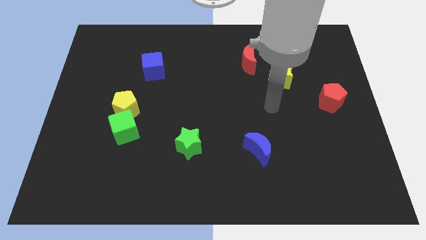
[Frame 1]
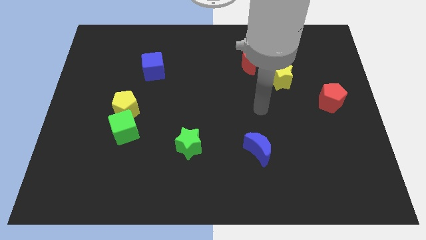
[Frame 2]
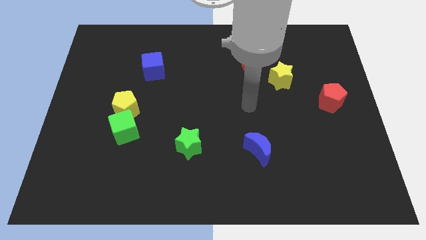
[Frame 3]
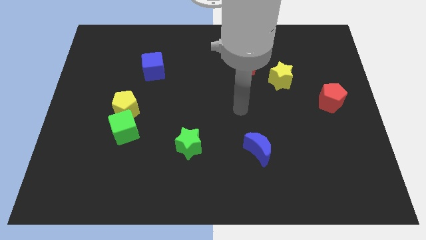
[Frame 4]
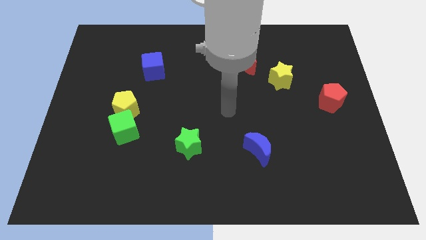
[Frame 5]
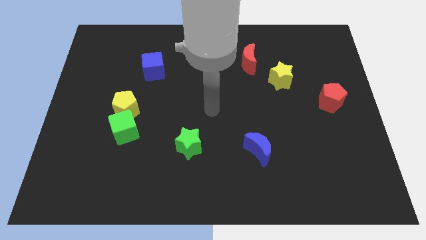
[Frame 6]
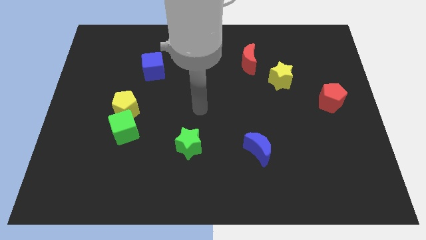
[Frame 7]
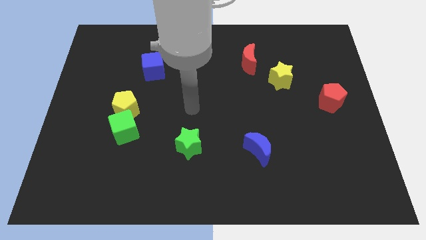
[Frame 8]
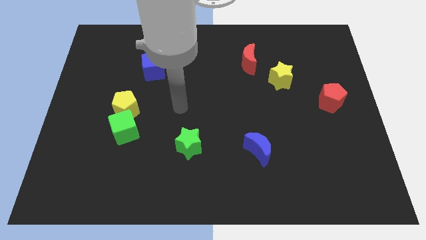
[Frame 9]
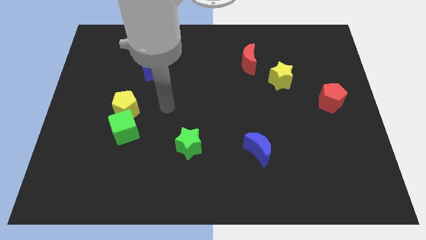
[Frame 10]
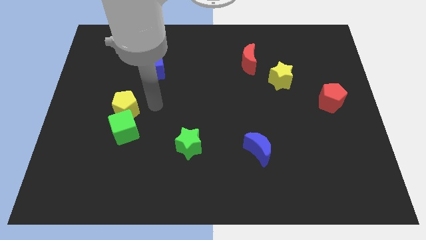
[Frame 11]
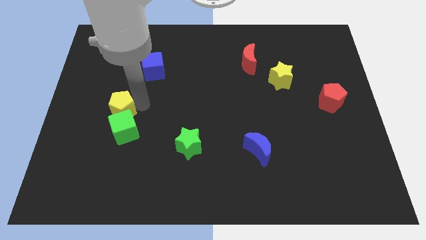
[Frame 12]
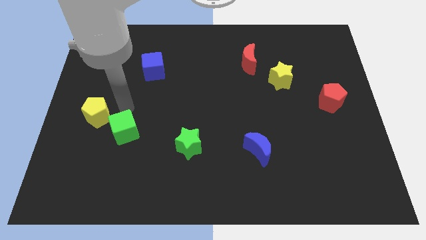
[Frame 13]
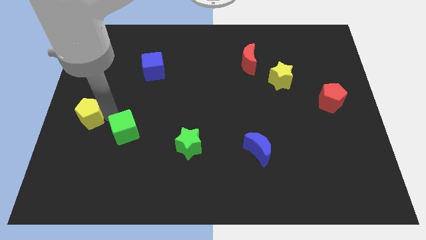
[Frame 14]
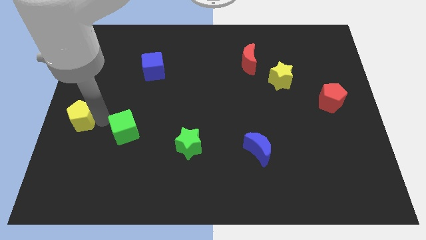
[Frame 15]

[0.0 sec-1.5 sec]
pull the green cube apart from the yellow pentagon

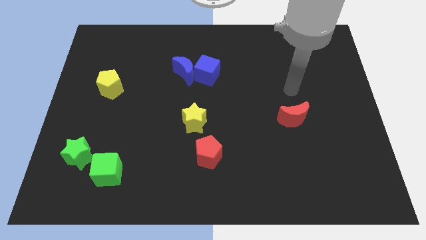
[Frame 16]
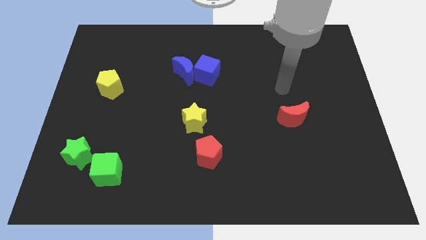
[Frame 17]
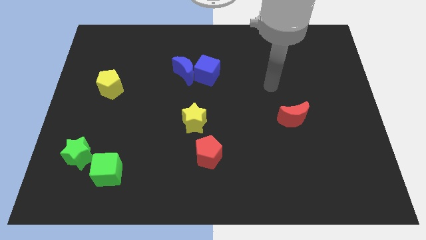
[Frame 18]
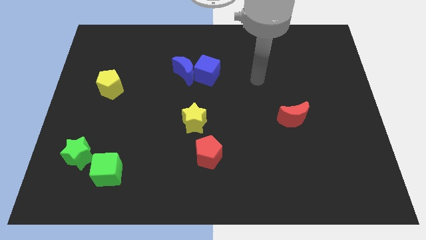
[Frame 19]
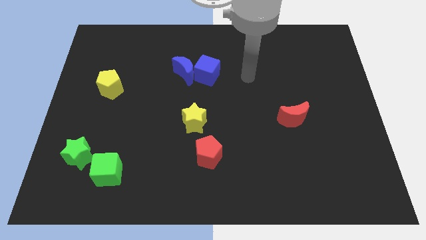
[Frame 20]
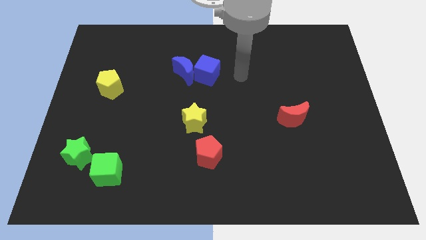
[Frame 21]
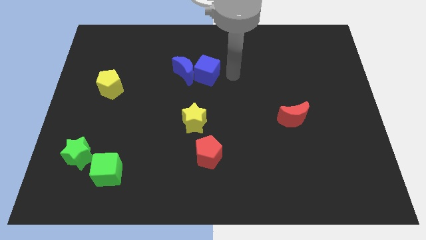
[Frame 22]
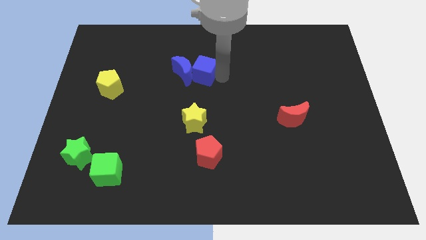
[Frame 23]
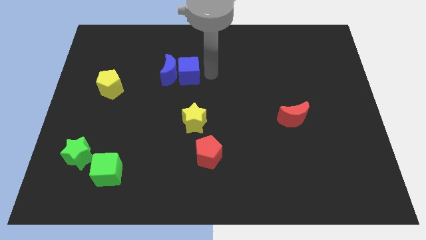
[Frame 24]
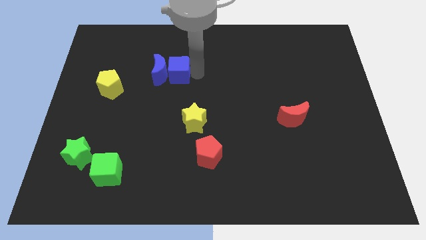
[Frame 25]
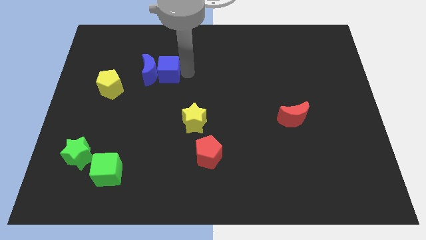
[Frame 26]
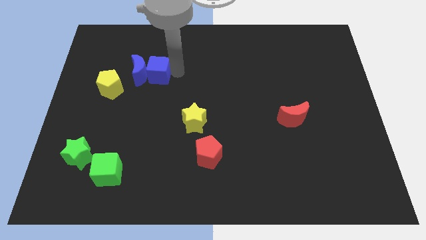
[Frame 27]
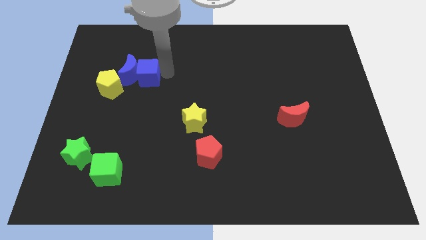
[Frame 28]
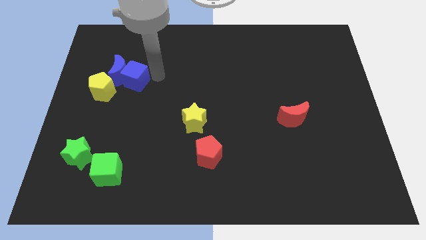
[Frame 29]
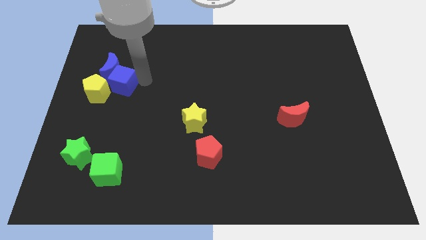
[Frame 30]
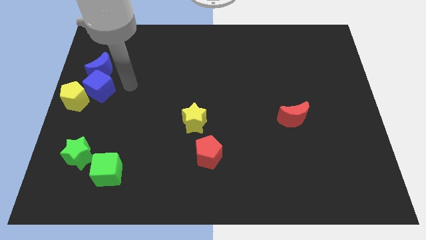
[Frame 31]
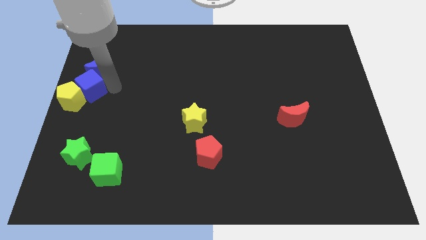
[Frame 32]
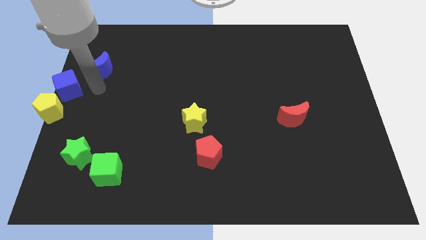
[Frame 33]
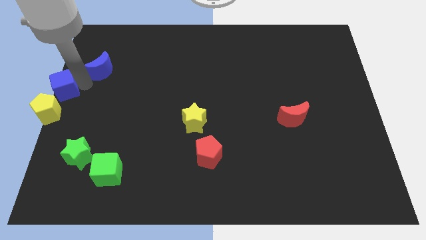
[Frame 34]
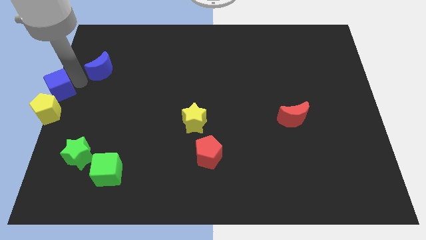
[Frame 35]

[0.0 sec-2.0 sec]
separate the blue moon from the blue cube

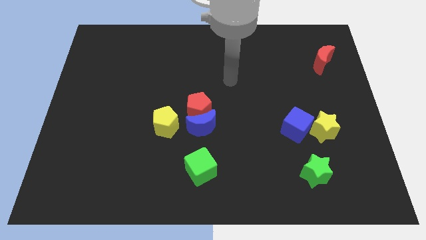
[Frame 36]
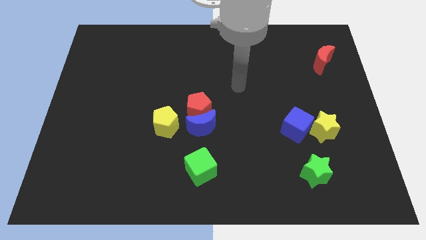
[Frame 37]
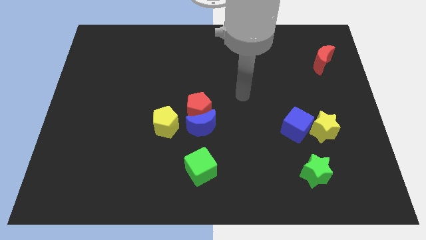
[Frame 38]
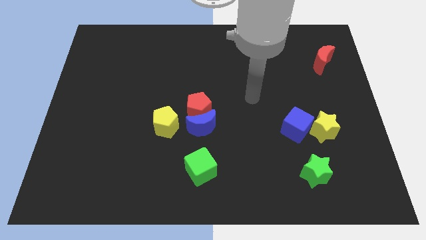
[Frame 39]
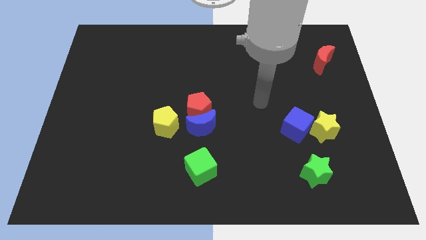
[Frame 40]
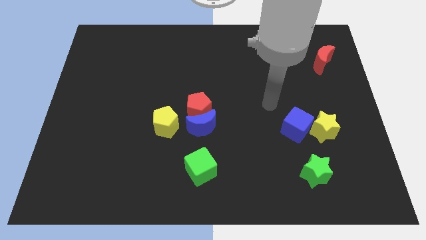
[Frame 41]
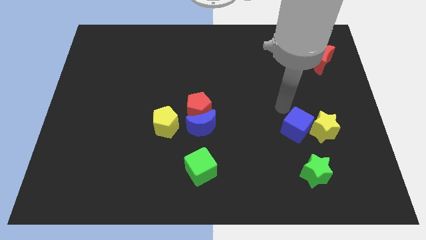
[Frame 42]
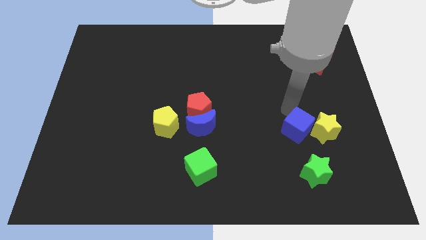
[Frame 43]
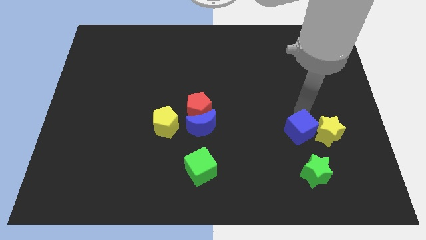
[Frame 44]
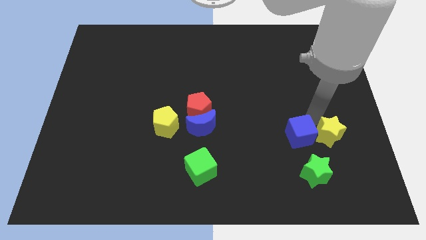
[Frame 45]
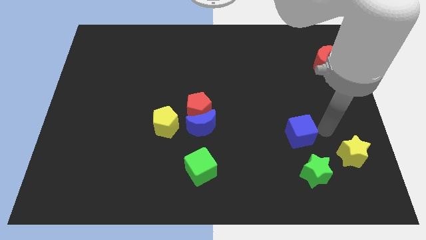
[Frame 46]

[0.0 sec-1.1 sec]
move the blue cube away from the yellow star

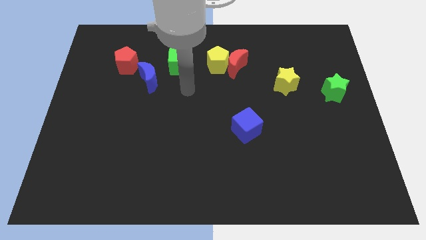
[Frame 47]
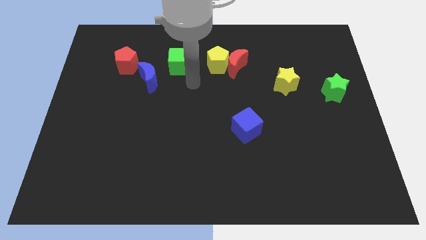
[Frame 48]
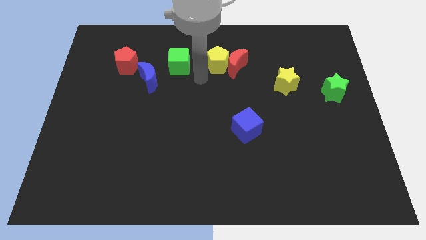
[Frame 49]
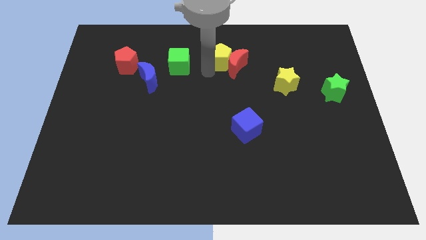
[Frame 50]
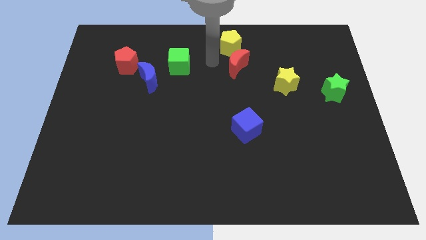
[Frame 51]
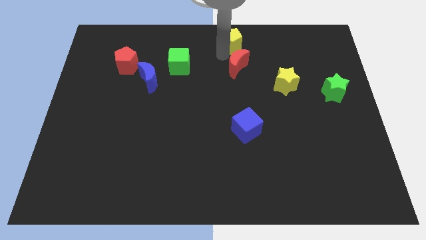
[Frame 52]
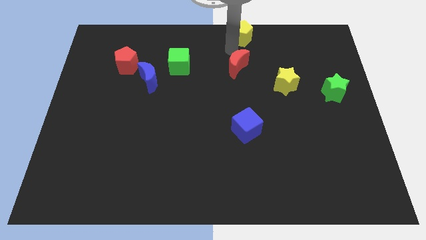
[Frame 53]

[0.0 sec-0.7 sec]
move the red moon away from the yellow pentagon

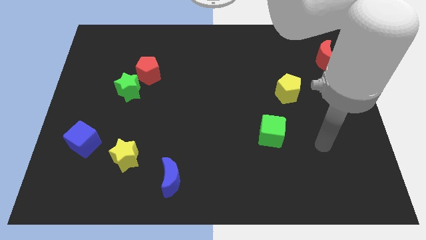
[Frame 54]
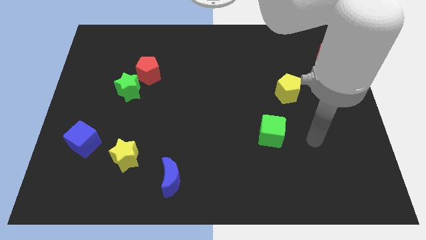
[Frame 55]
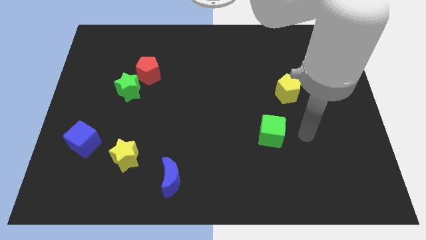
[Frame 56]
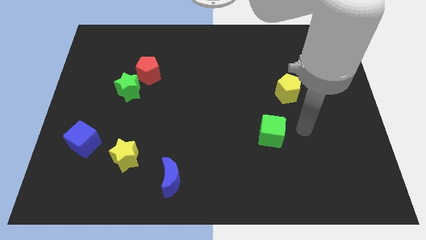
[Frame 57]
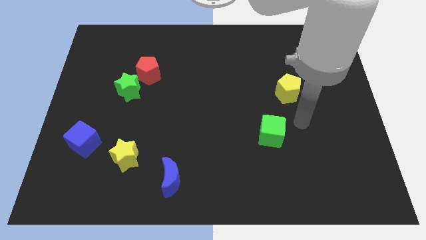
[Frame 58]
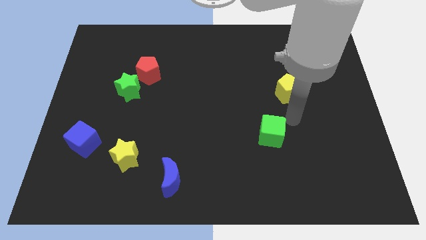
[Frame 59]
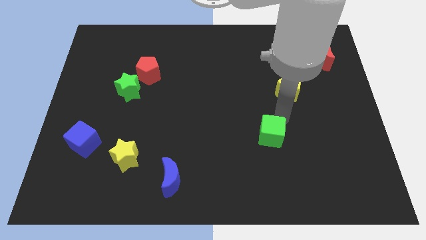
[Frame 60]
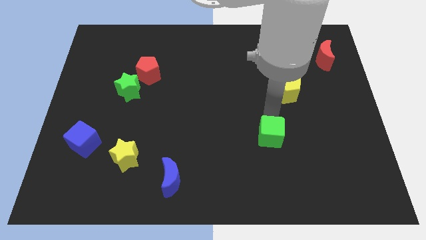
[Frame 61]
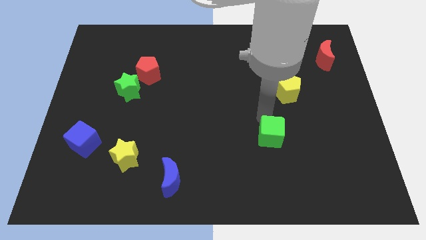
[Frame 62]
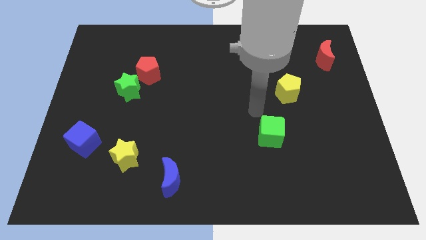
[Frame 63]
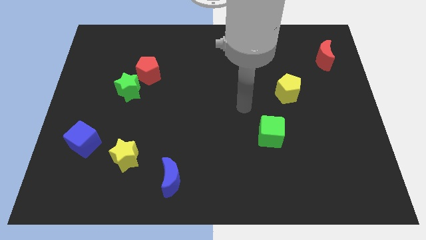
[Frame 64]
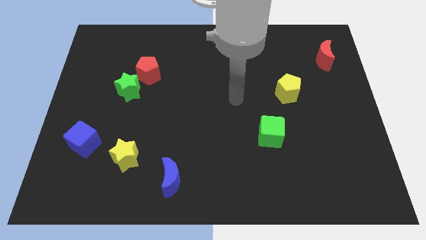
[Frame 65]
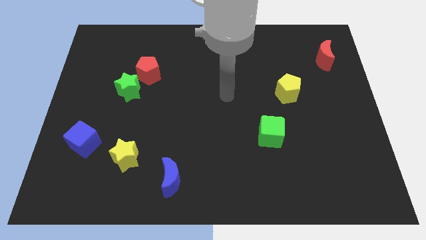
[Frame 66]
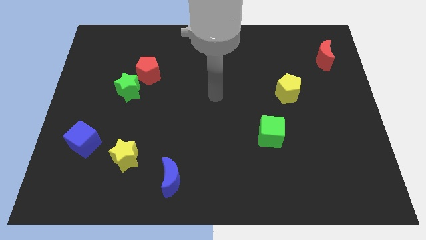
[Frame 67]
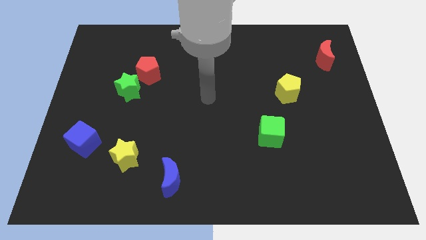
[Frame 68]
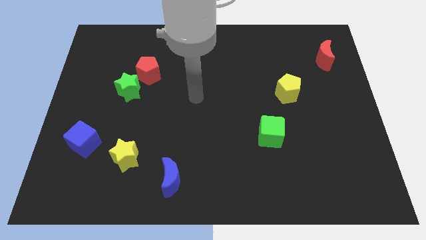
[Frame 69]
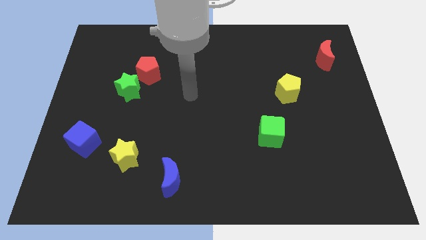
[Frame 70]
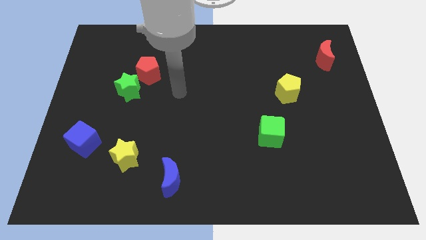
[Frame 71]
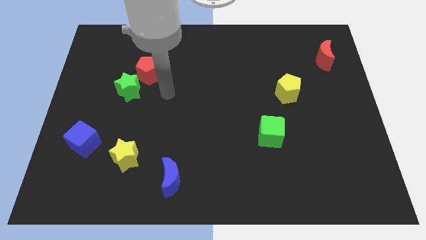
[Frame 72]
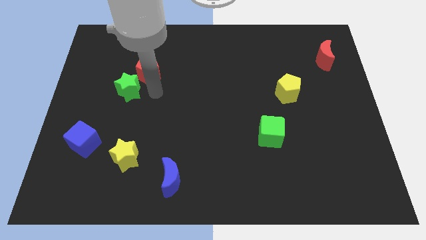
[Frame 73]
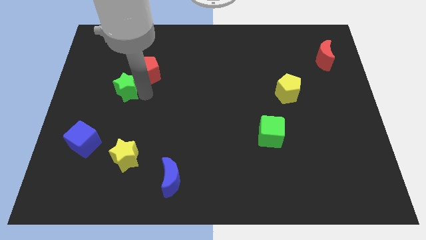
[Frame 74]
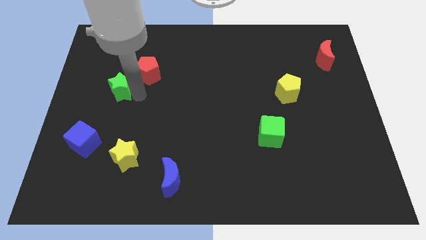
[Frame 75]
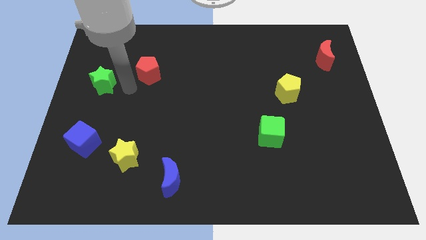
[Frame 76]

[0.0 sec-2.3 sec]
pull the red pentagon apart from the green star

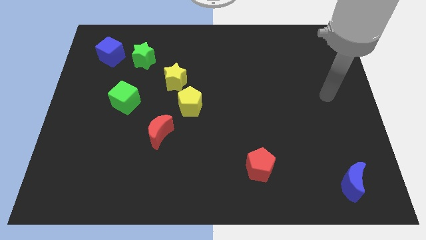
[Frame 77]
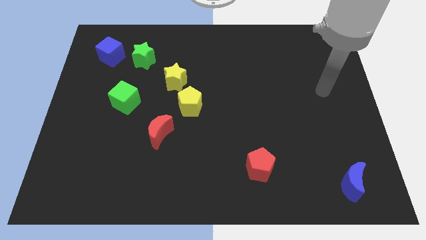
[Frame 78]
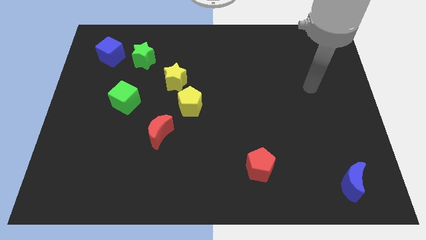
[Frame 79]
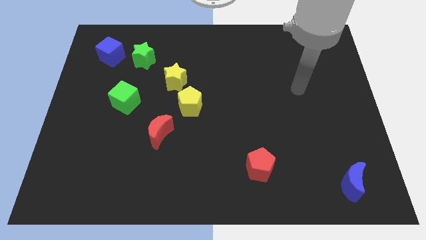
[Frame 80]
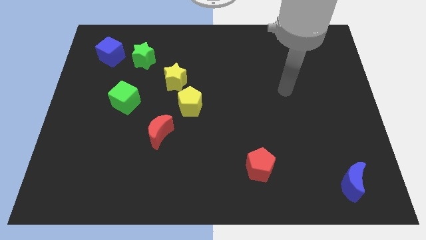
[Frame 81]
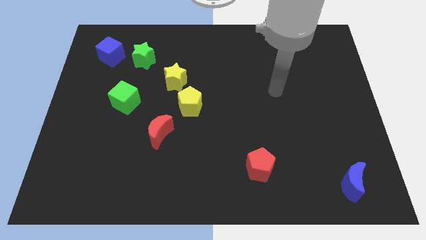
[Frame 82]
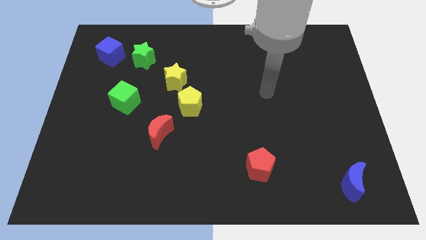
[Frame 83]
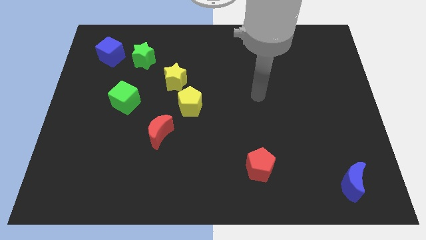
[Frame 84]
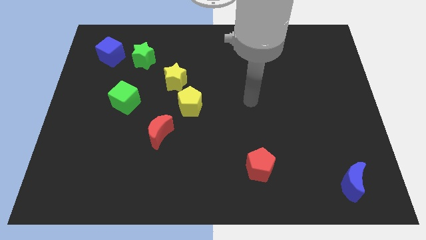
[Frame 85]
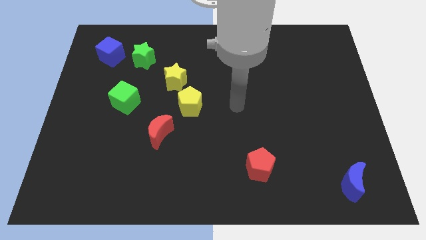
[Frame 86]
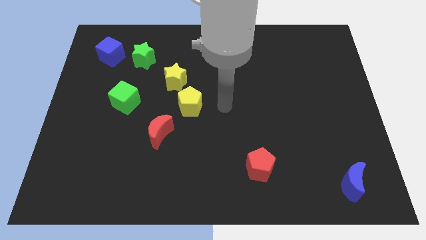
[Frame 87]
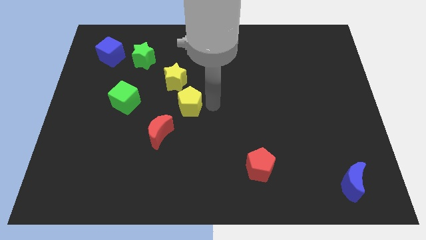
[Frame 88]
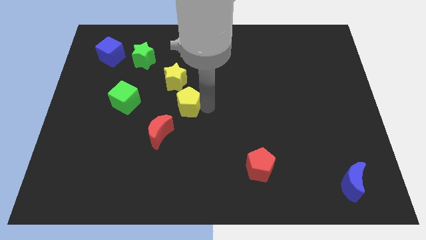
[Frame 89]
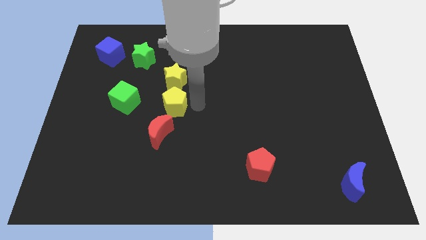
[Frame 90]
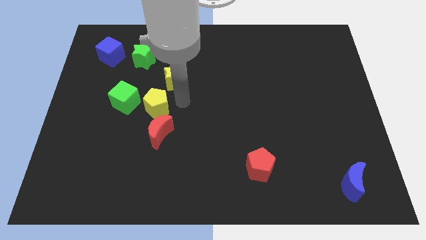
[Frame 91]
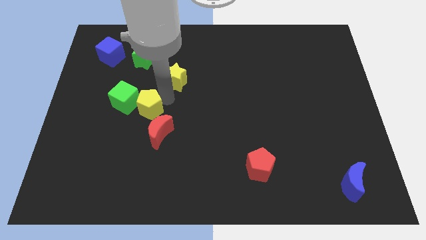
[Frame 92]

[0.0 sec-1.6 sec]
pull the yellow star apart from the yellow pentagon
